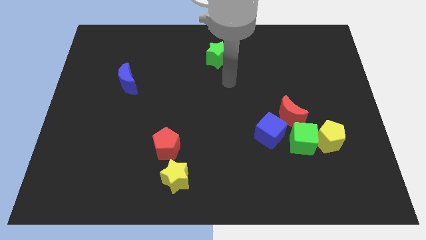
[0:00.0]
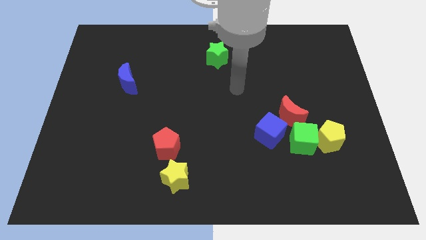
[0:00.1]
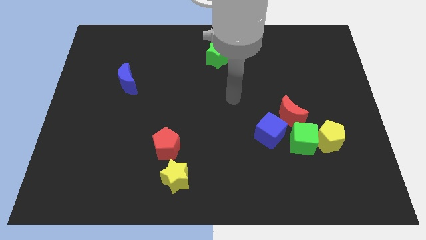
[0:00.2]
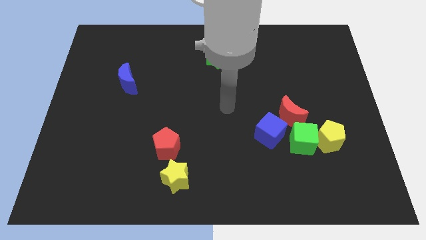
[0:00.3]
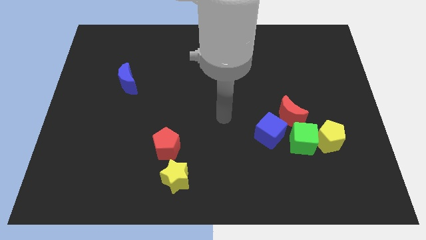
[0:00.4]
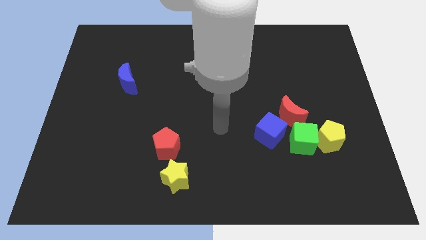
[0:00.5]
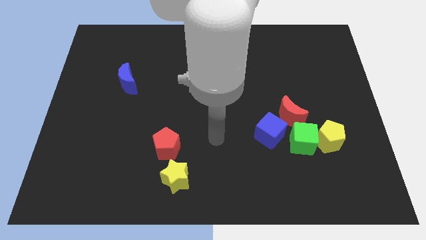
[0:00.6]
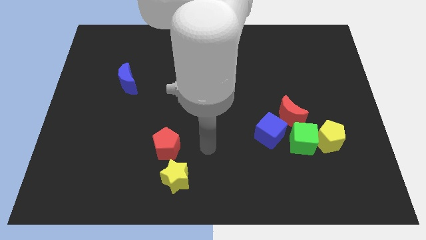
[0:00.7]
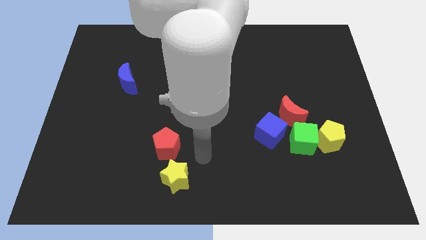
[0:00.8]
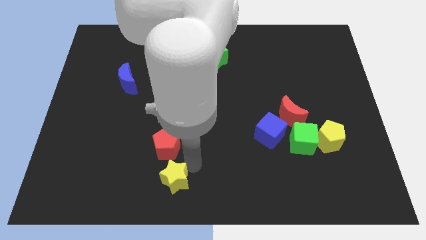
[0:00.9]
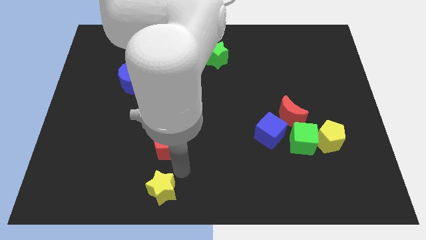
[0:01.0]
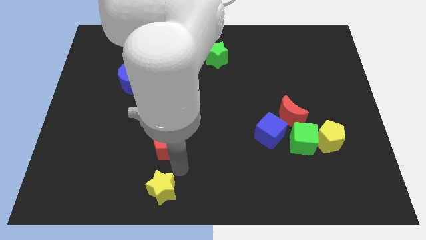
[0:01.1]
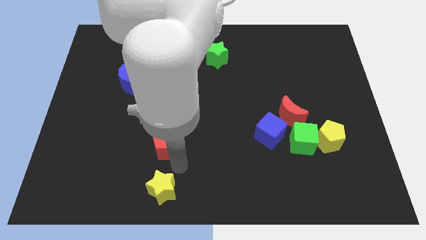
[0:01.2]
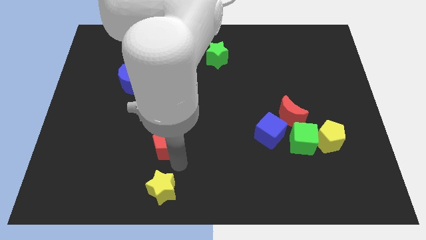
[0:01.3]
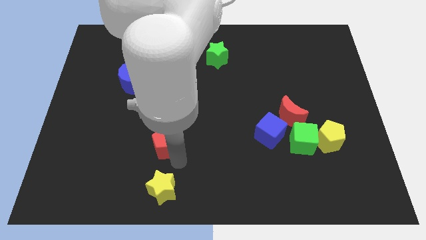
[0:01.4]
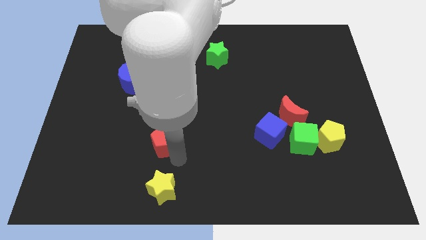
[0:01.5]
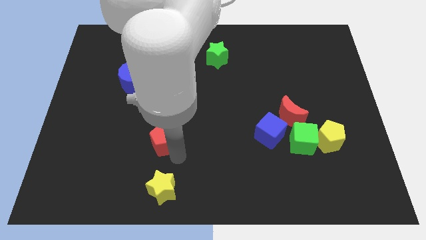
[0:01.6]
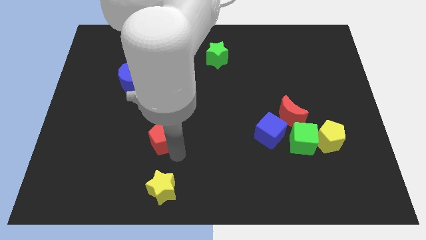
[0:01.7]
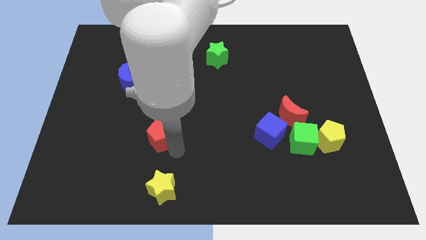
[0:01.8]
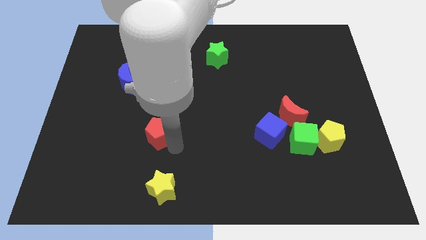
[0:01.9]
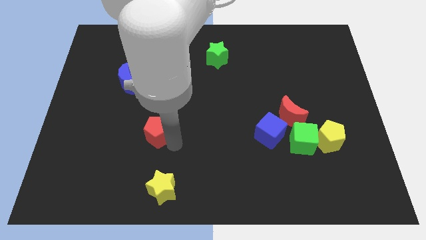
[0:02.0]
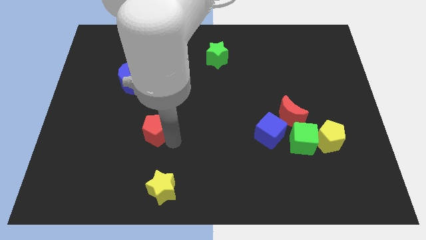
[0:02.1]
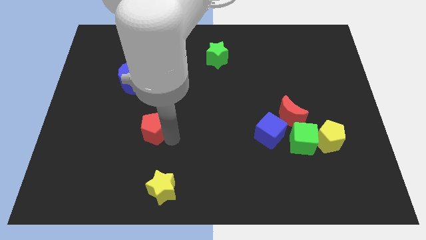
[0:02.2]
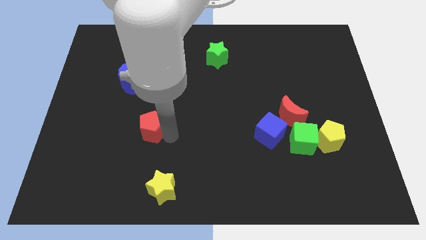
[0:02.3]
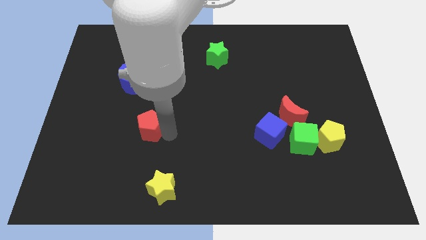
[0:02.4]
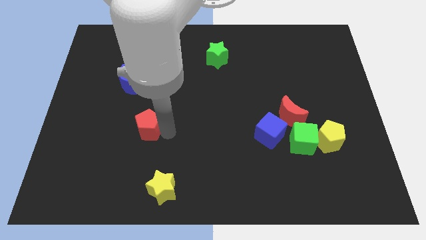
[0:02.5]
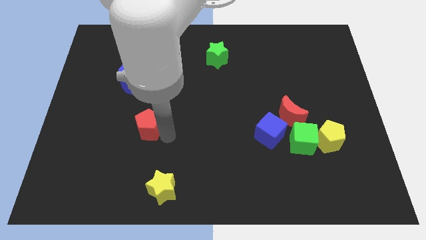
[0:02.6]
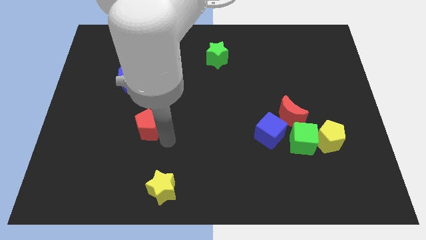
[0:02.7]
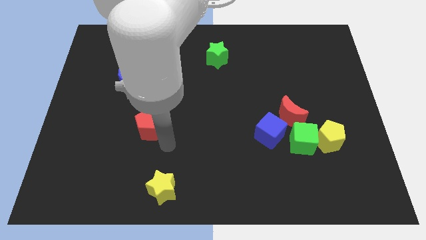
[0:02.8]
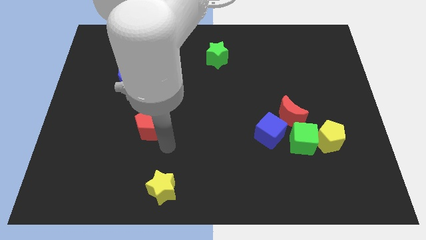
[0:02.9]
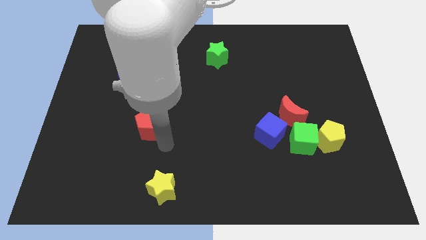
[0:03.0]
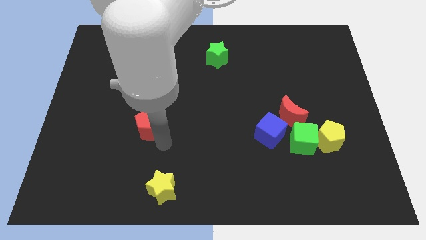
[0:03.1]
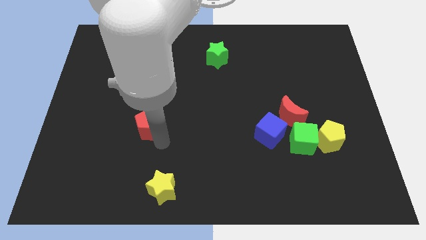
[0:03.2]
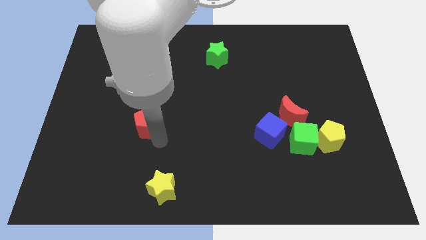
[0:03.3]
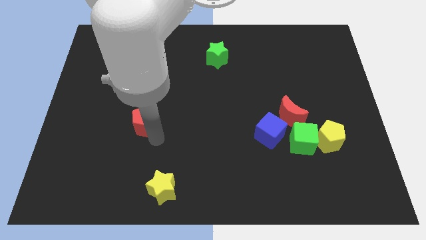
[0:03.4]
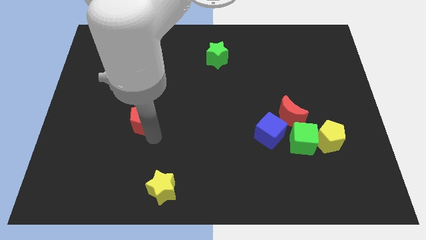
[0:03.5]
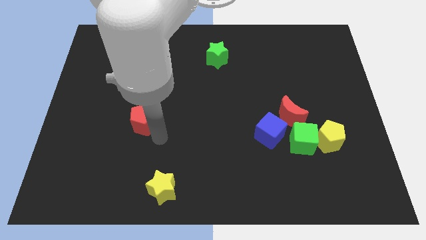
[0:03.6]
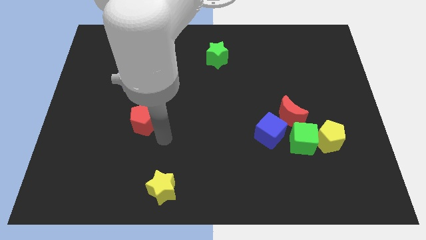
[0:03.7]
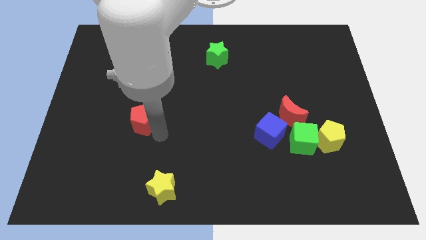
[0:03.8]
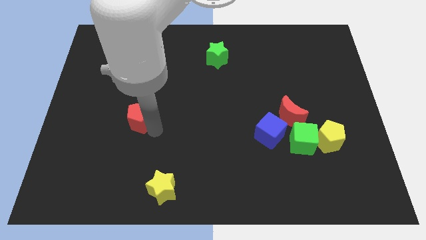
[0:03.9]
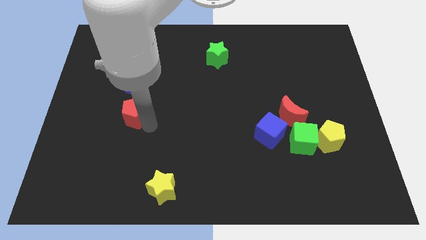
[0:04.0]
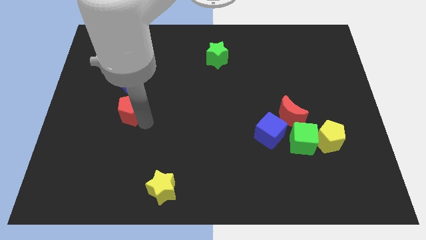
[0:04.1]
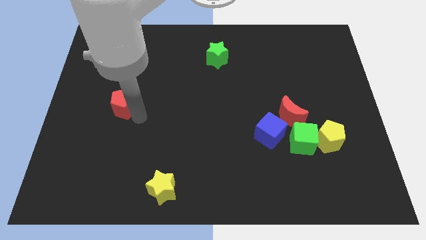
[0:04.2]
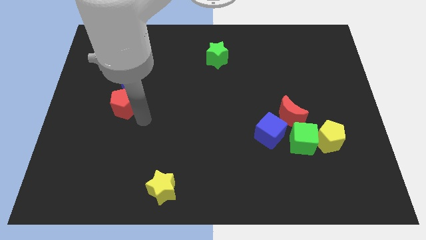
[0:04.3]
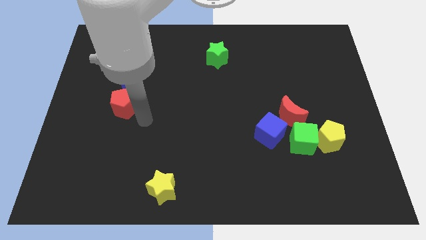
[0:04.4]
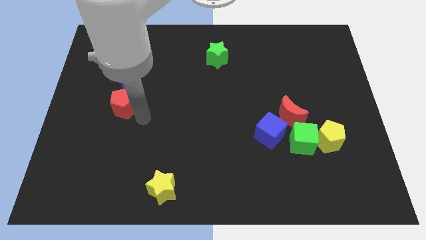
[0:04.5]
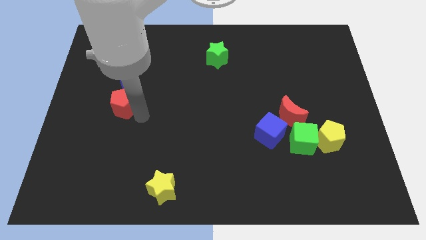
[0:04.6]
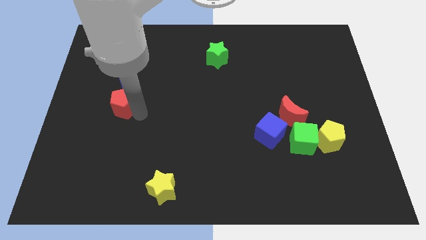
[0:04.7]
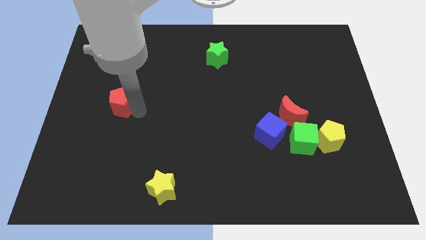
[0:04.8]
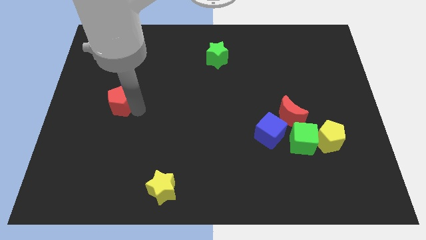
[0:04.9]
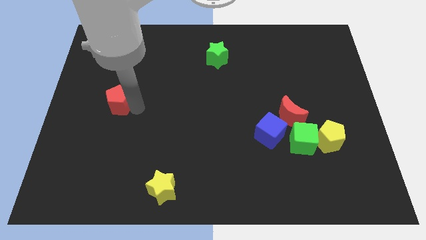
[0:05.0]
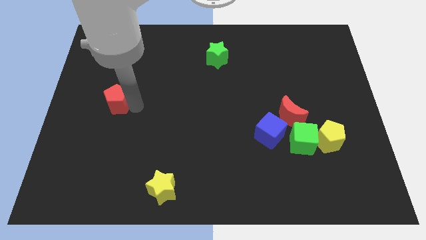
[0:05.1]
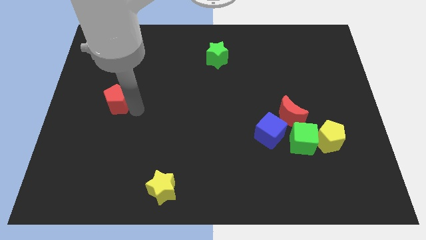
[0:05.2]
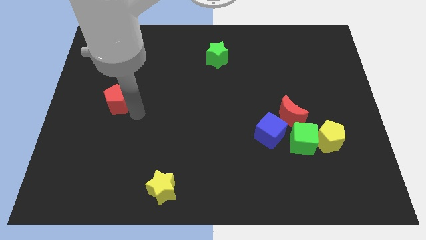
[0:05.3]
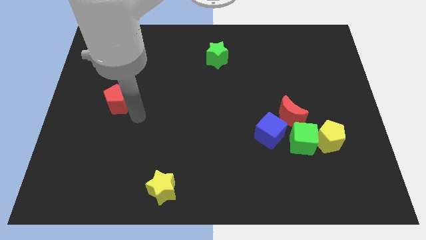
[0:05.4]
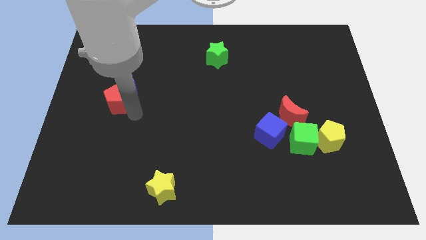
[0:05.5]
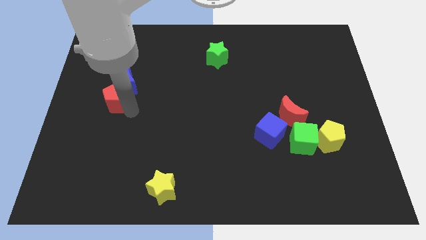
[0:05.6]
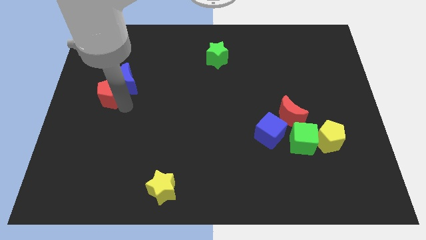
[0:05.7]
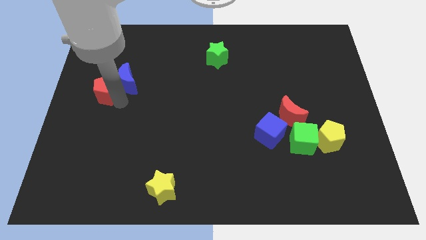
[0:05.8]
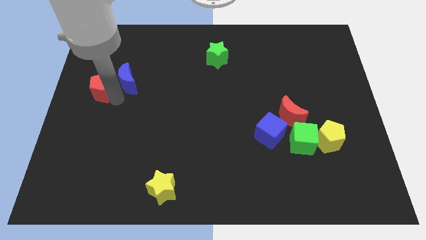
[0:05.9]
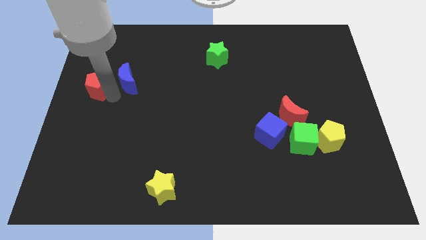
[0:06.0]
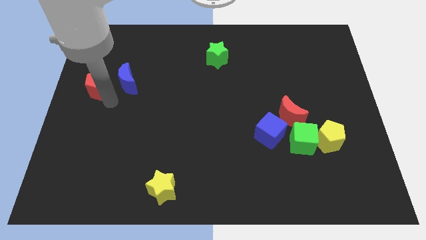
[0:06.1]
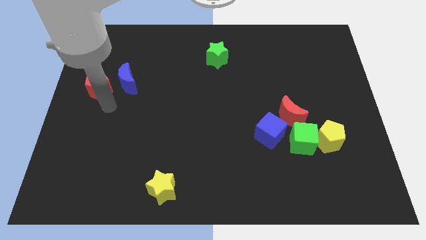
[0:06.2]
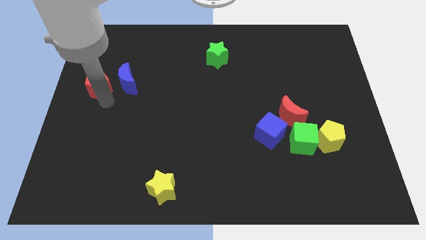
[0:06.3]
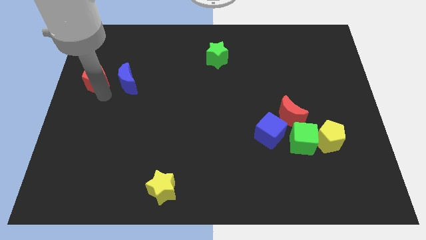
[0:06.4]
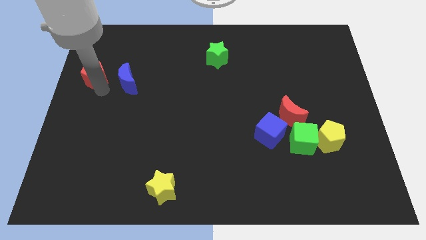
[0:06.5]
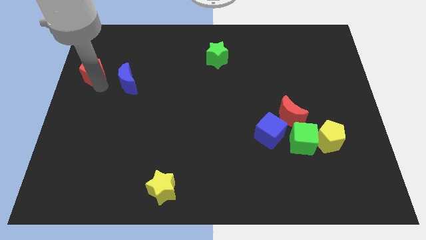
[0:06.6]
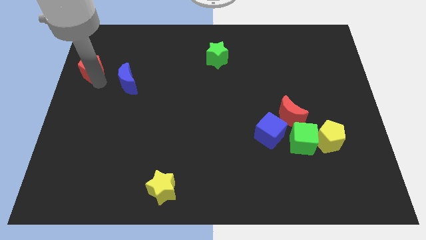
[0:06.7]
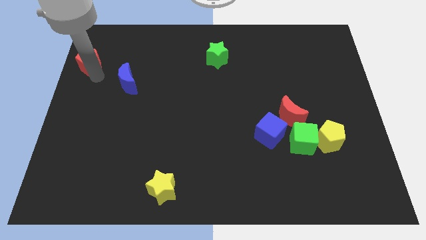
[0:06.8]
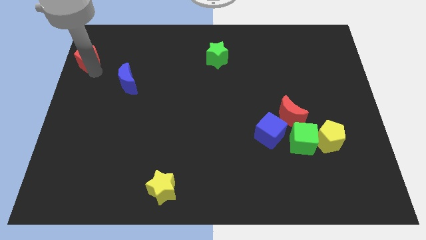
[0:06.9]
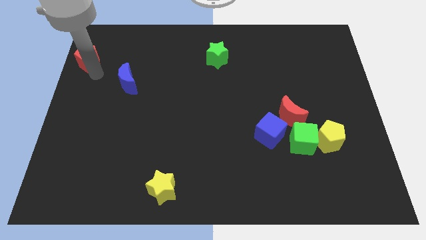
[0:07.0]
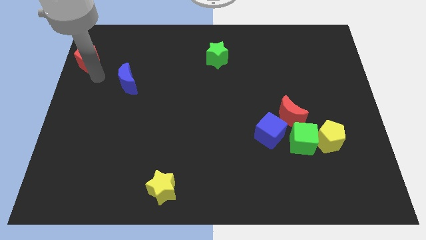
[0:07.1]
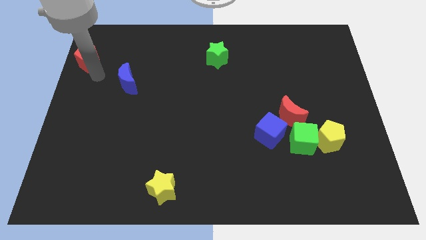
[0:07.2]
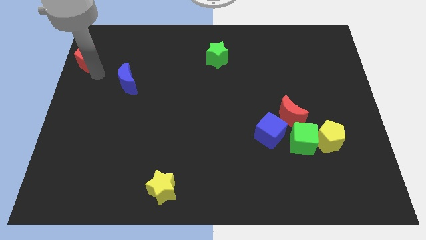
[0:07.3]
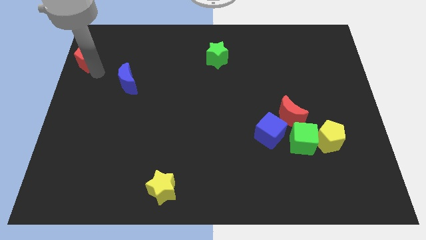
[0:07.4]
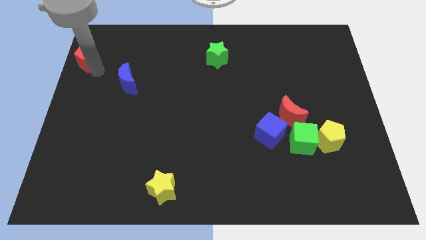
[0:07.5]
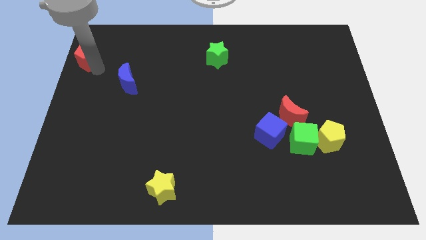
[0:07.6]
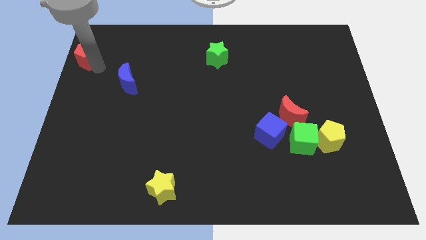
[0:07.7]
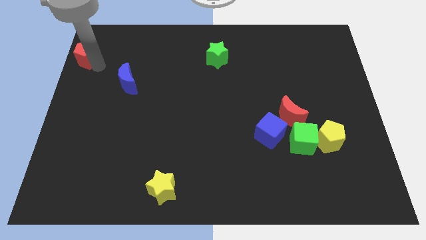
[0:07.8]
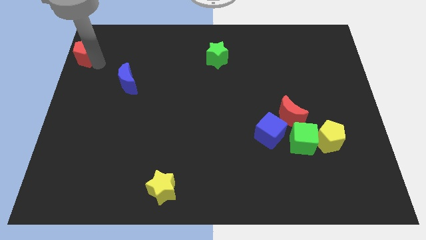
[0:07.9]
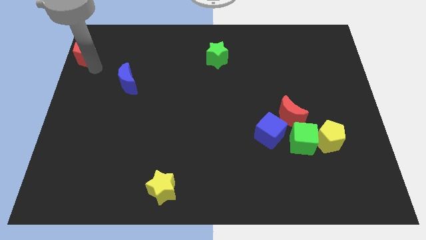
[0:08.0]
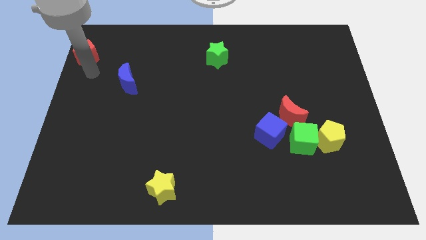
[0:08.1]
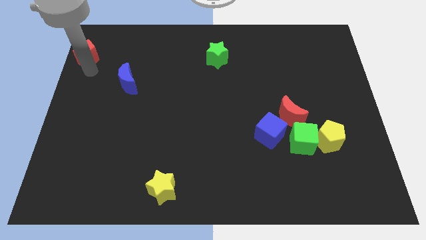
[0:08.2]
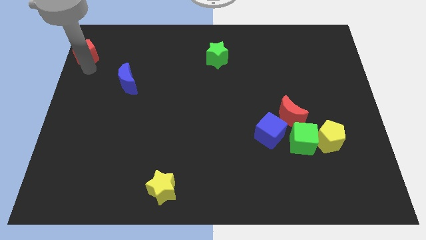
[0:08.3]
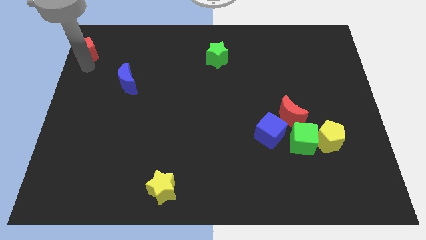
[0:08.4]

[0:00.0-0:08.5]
put the red pentagon to the top left corner
